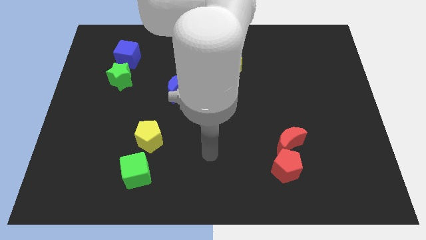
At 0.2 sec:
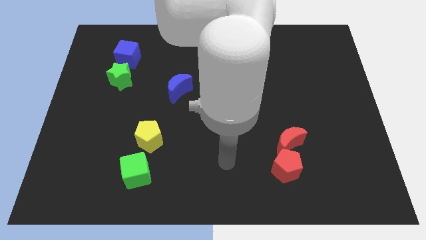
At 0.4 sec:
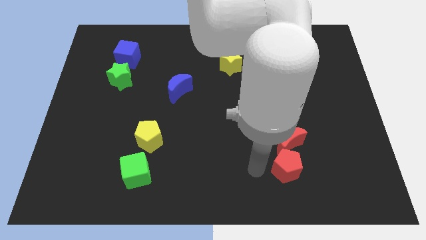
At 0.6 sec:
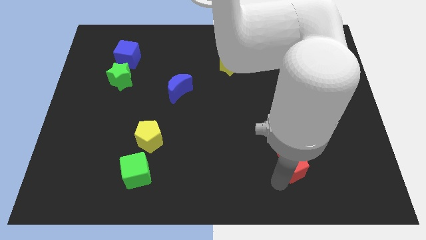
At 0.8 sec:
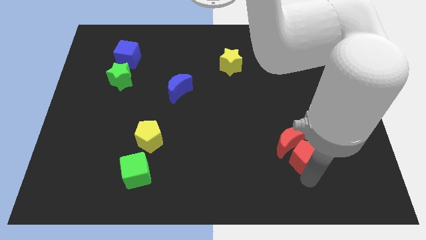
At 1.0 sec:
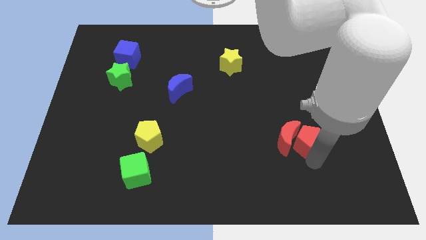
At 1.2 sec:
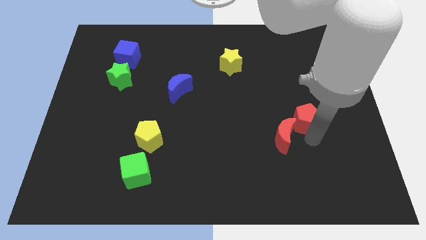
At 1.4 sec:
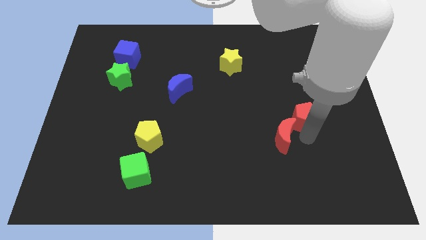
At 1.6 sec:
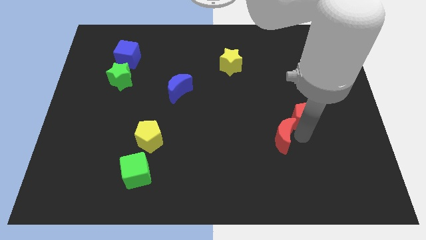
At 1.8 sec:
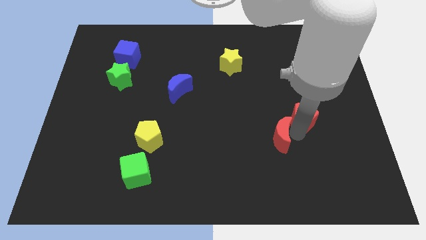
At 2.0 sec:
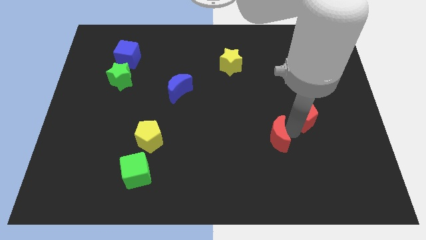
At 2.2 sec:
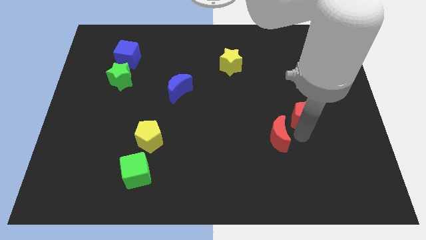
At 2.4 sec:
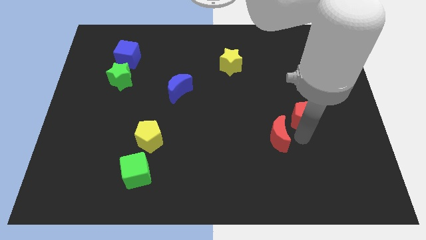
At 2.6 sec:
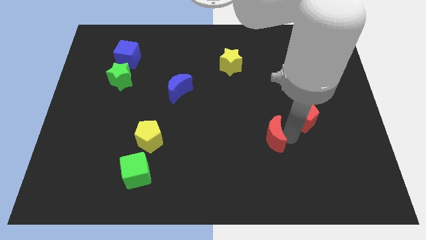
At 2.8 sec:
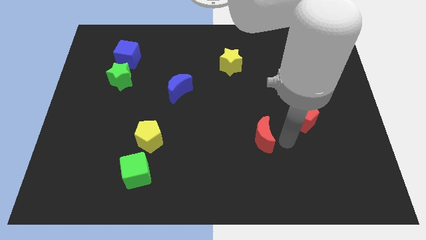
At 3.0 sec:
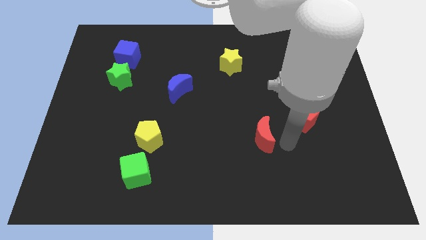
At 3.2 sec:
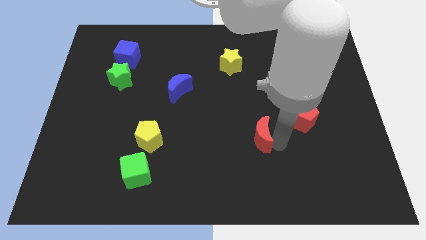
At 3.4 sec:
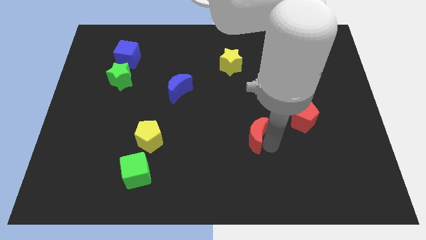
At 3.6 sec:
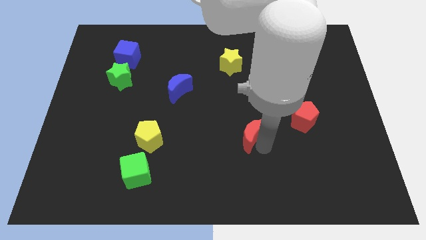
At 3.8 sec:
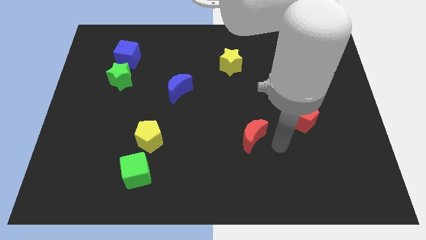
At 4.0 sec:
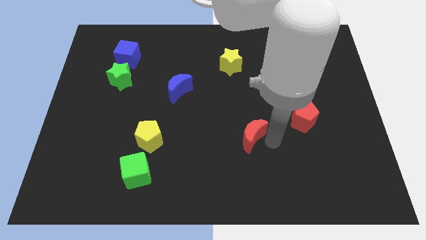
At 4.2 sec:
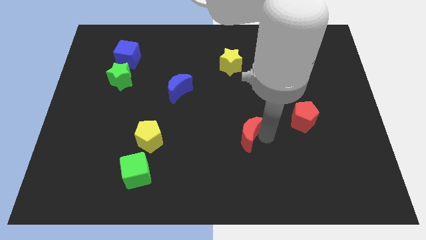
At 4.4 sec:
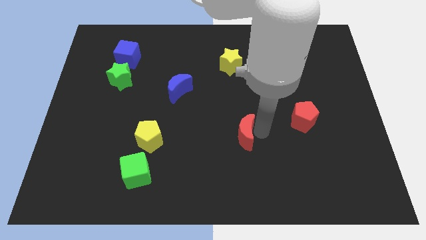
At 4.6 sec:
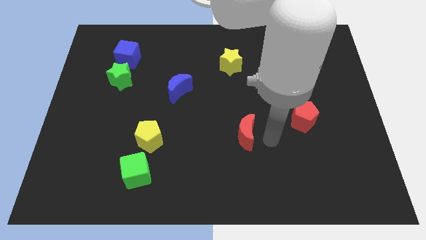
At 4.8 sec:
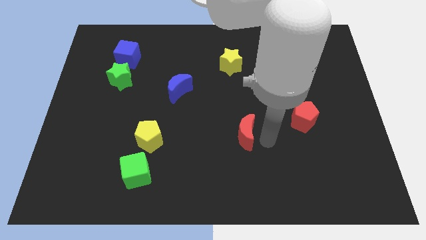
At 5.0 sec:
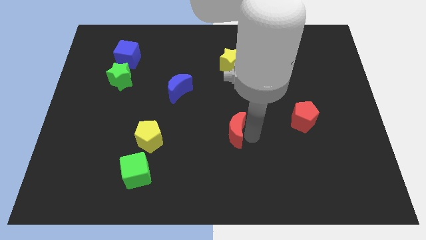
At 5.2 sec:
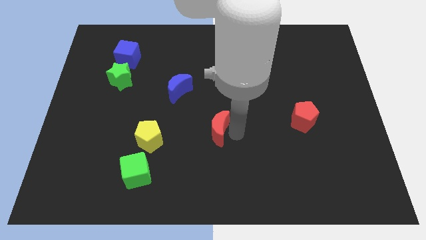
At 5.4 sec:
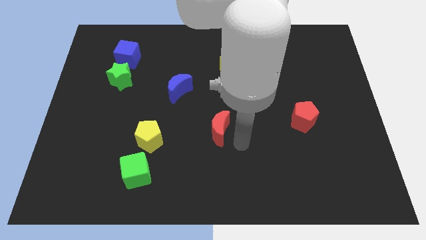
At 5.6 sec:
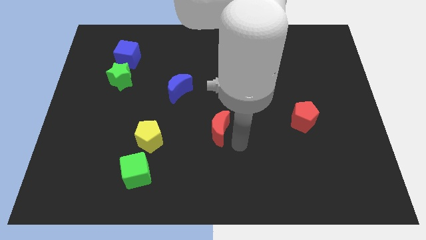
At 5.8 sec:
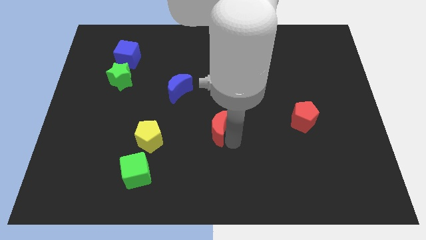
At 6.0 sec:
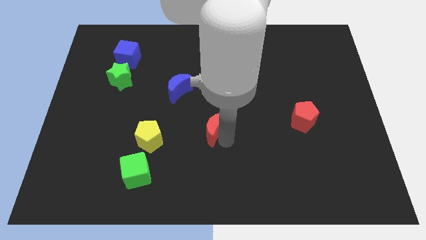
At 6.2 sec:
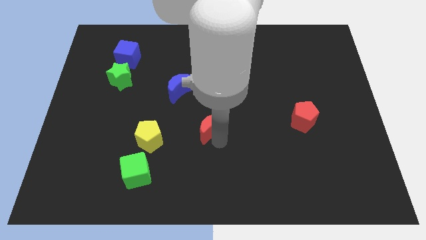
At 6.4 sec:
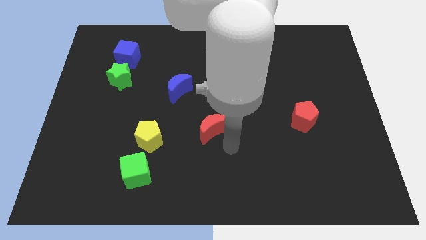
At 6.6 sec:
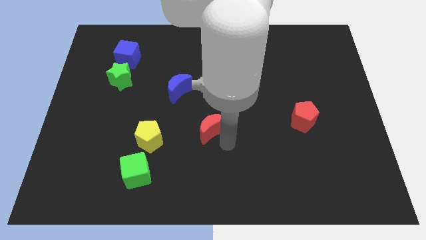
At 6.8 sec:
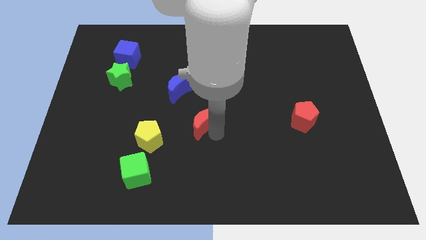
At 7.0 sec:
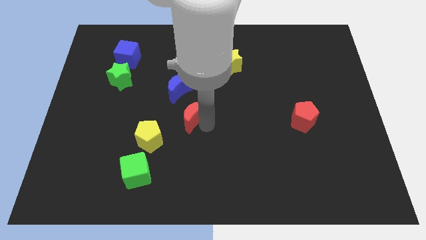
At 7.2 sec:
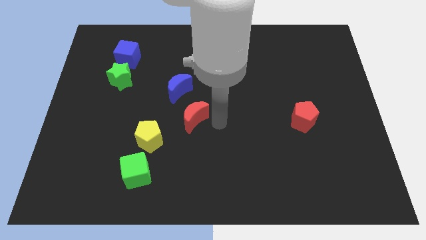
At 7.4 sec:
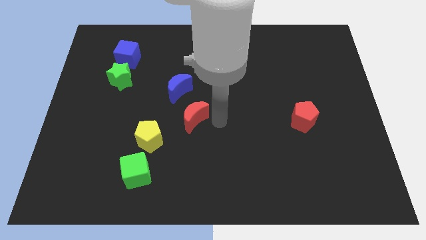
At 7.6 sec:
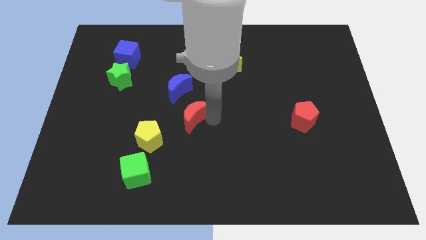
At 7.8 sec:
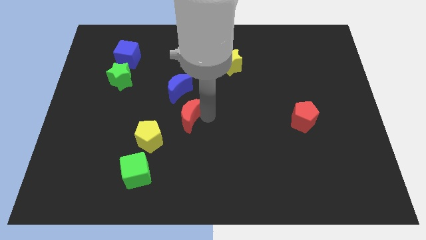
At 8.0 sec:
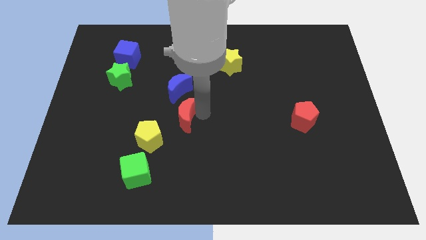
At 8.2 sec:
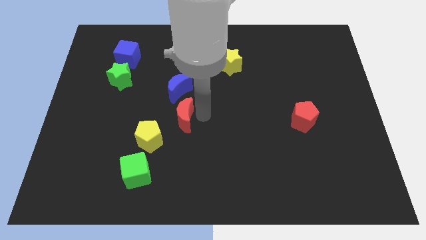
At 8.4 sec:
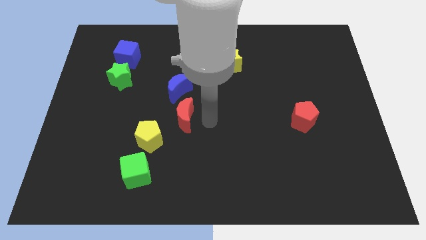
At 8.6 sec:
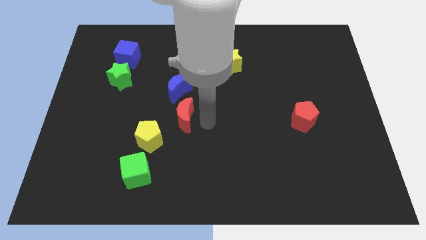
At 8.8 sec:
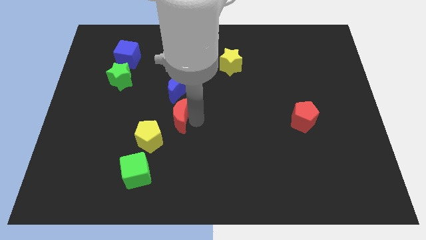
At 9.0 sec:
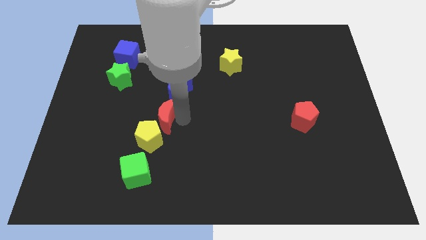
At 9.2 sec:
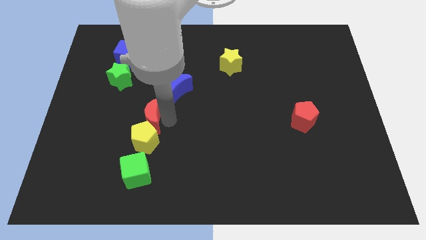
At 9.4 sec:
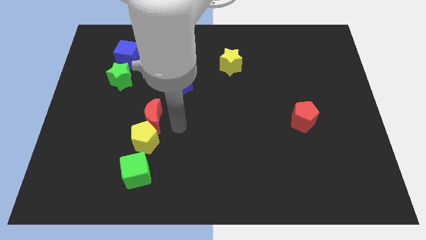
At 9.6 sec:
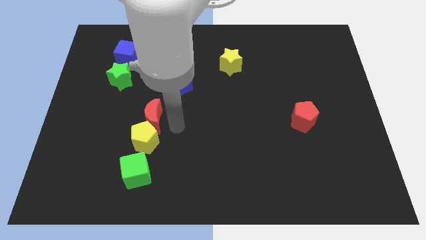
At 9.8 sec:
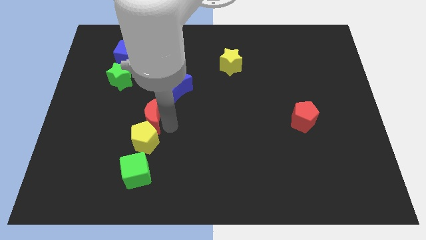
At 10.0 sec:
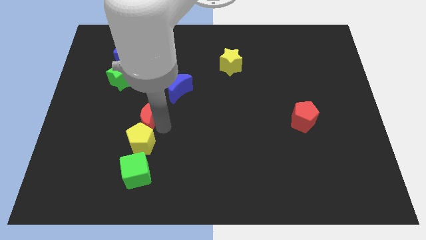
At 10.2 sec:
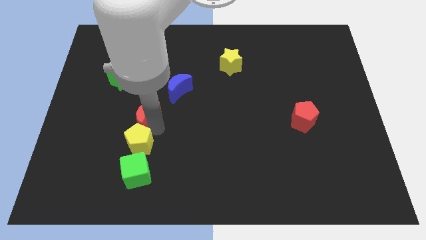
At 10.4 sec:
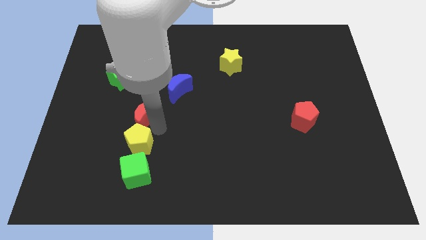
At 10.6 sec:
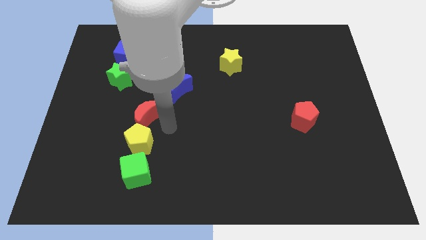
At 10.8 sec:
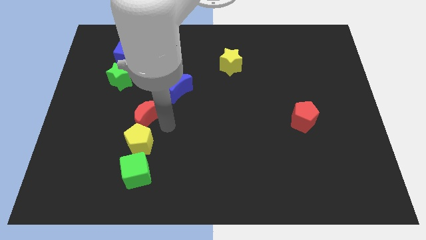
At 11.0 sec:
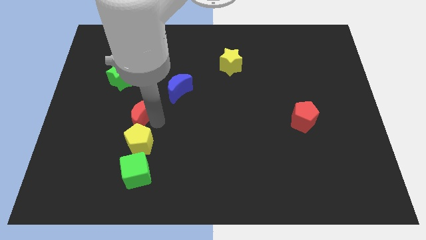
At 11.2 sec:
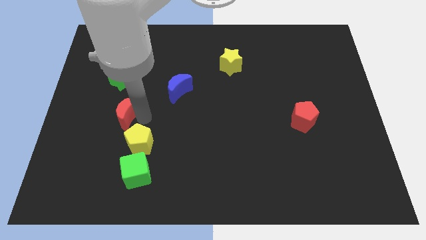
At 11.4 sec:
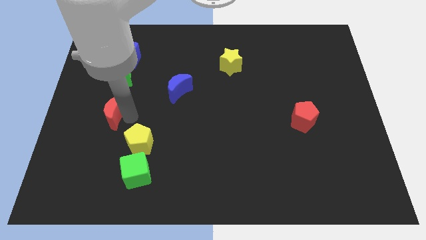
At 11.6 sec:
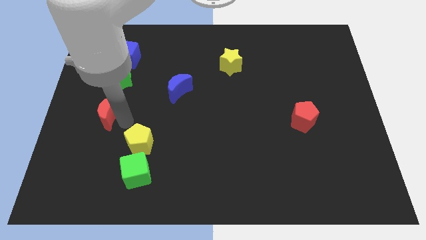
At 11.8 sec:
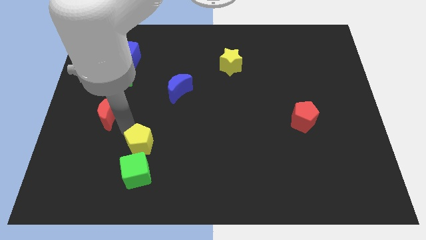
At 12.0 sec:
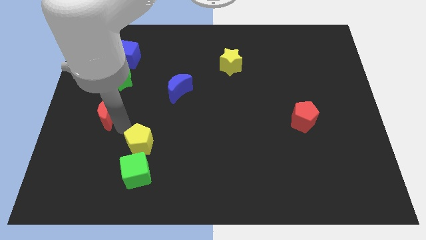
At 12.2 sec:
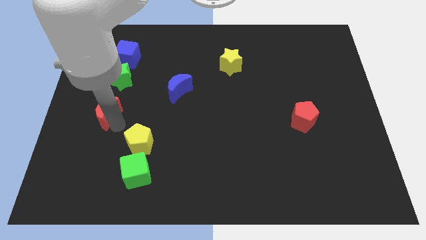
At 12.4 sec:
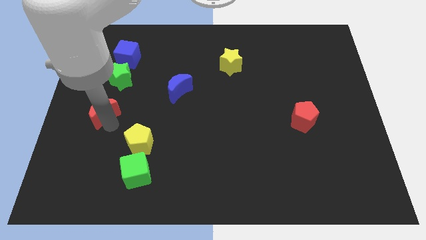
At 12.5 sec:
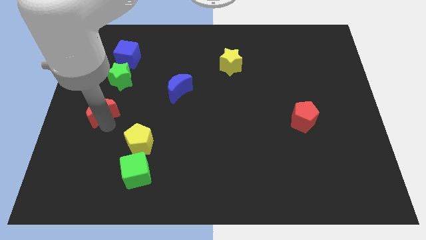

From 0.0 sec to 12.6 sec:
slide the red moon to the center left

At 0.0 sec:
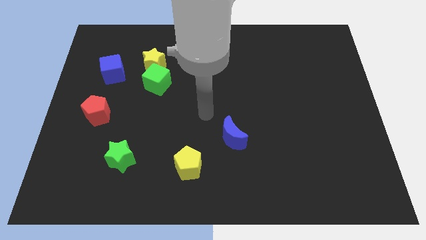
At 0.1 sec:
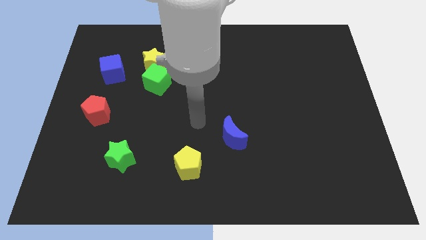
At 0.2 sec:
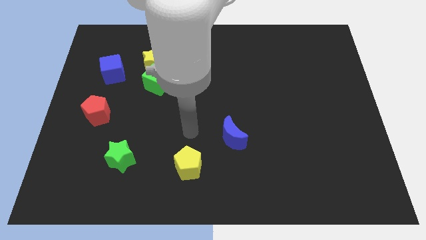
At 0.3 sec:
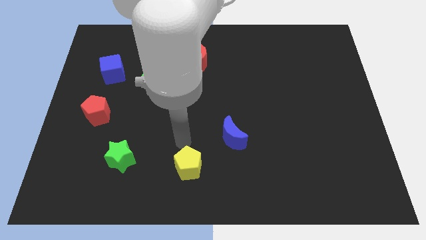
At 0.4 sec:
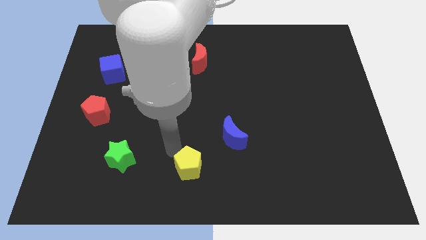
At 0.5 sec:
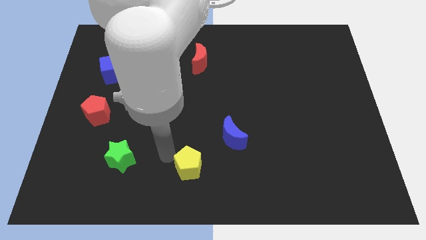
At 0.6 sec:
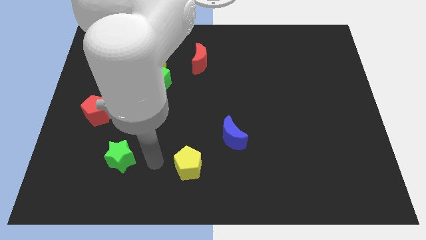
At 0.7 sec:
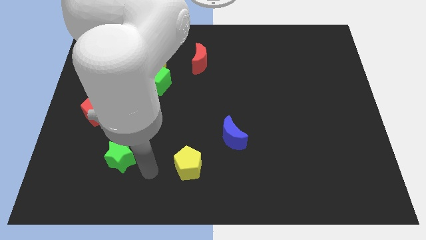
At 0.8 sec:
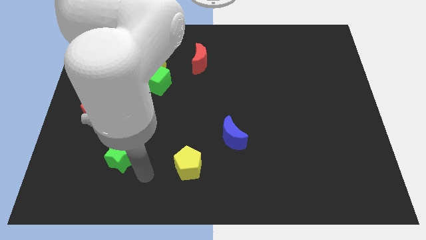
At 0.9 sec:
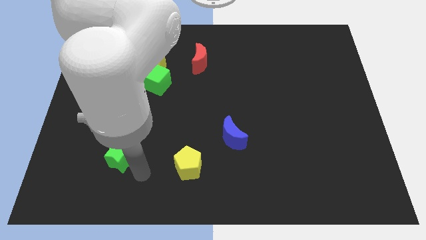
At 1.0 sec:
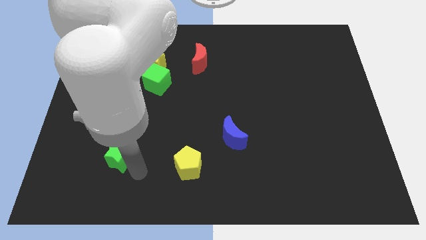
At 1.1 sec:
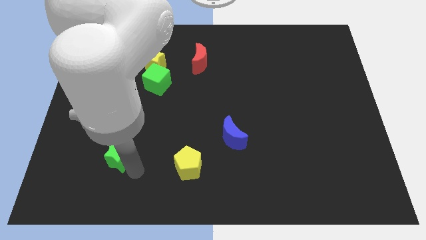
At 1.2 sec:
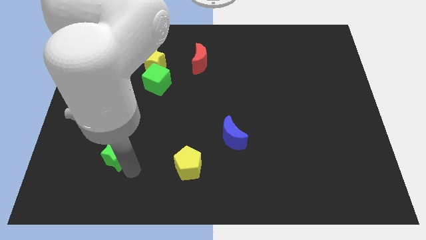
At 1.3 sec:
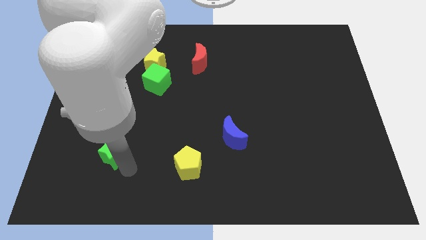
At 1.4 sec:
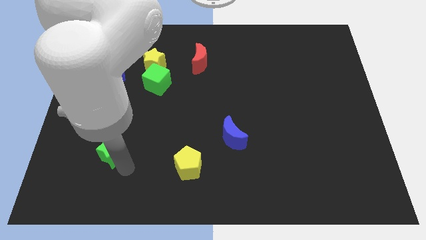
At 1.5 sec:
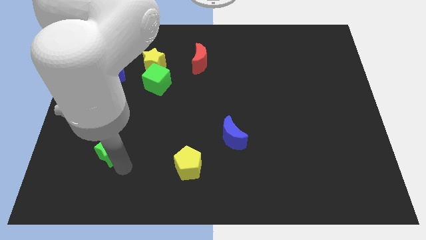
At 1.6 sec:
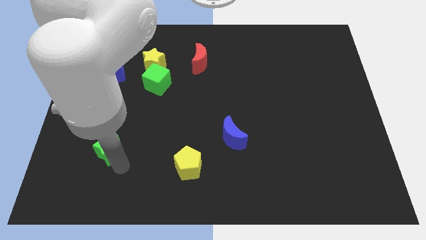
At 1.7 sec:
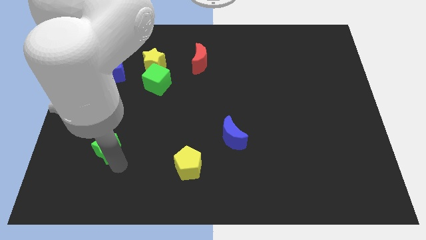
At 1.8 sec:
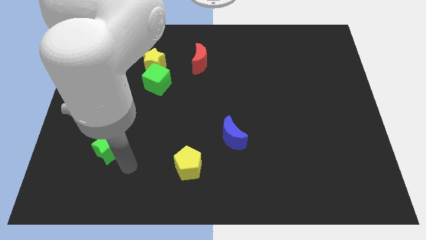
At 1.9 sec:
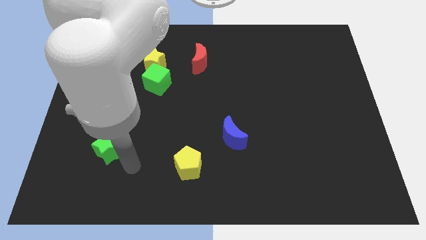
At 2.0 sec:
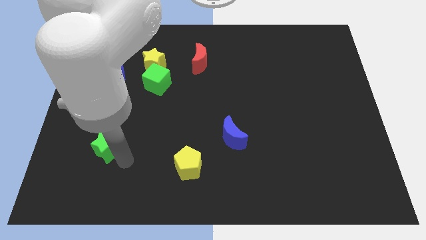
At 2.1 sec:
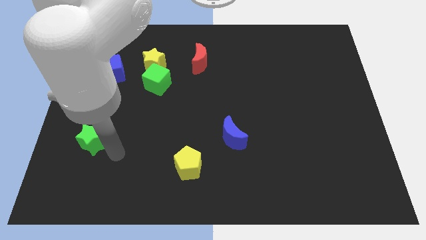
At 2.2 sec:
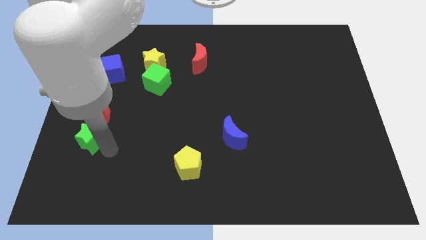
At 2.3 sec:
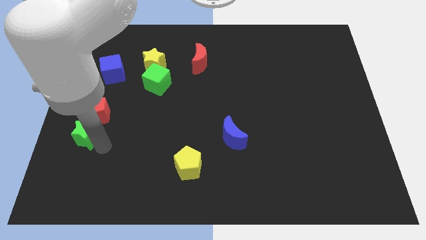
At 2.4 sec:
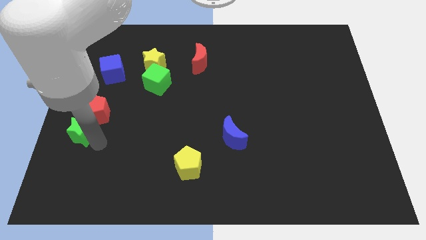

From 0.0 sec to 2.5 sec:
put the green star to the left side
